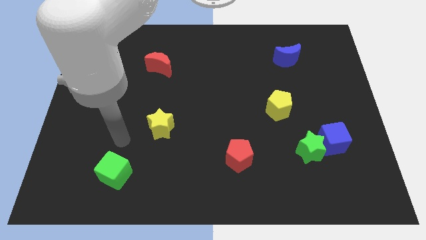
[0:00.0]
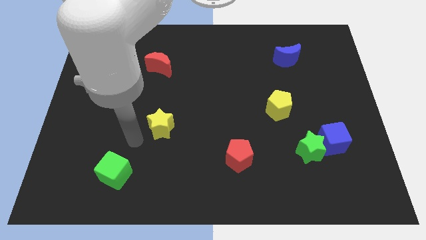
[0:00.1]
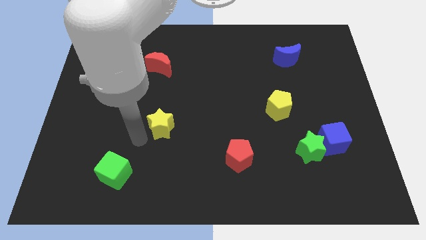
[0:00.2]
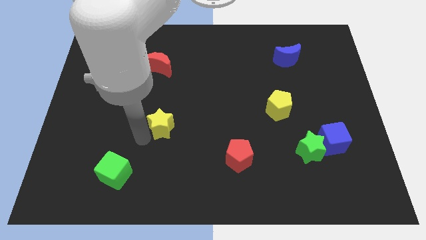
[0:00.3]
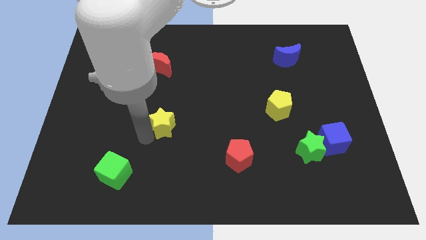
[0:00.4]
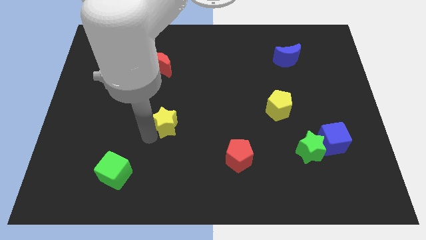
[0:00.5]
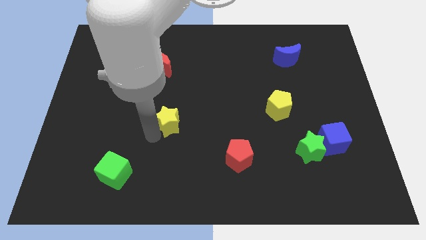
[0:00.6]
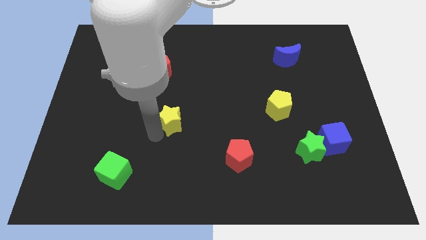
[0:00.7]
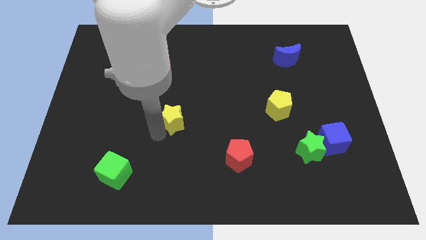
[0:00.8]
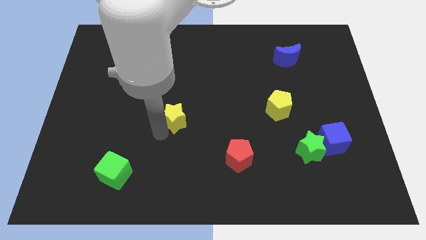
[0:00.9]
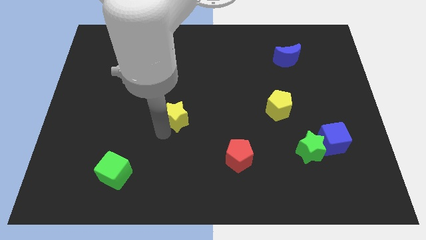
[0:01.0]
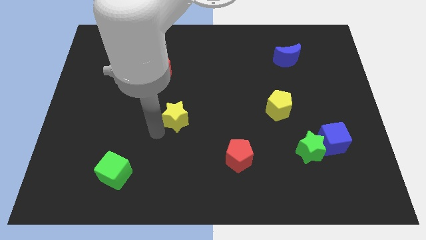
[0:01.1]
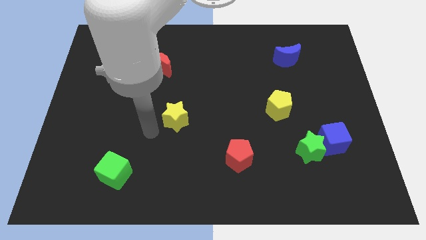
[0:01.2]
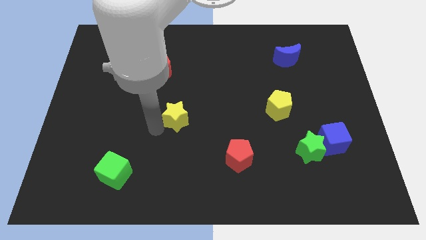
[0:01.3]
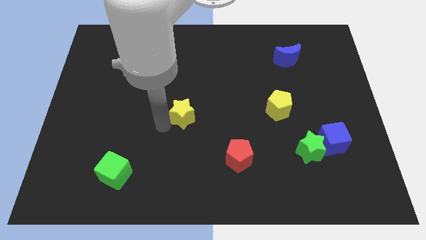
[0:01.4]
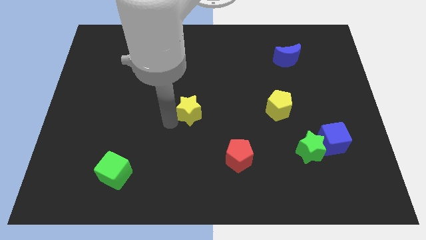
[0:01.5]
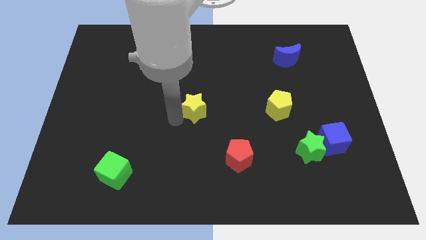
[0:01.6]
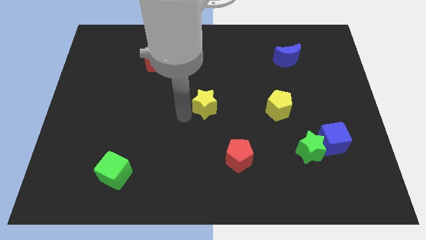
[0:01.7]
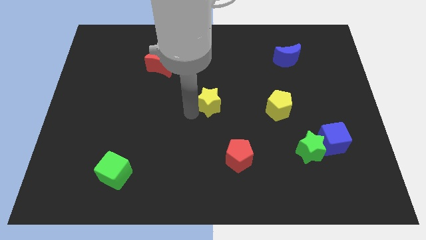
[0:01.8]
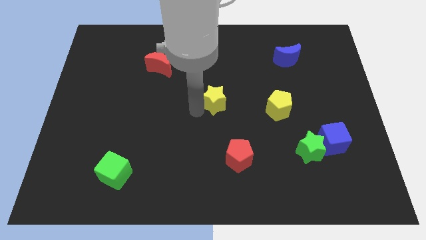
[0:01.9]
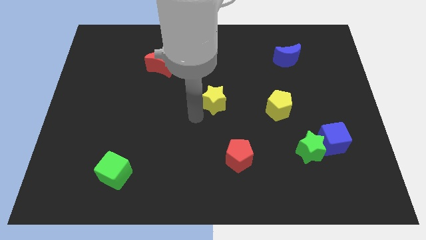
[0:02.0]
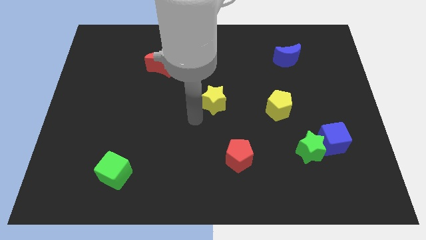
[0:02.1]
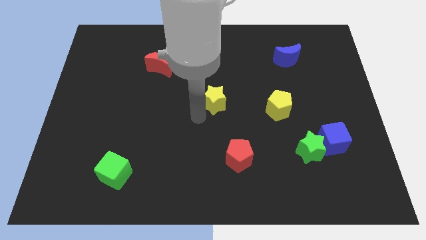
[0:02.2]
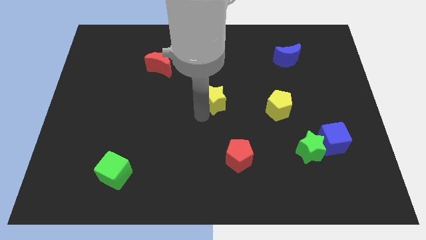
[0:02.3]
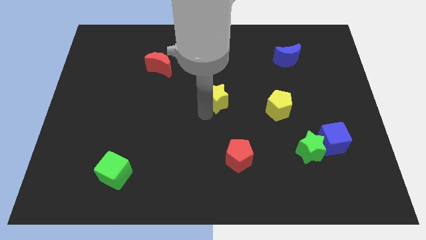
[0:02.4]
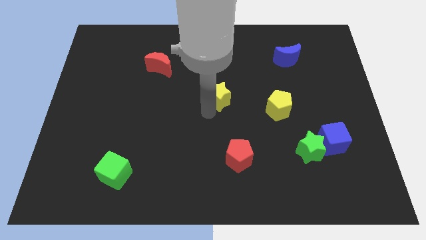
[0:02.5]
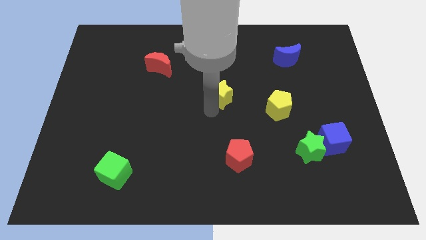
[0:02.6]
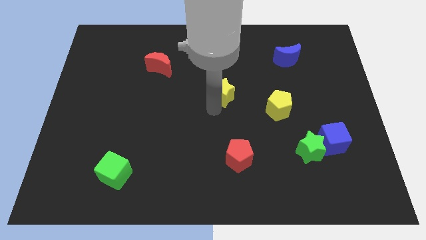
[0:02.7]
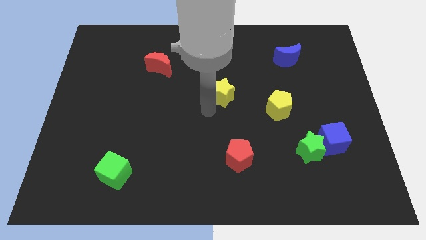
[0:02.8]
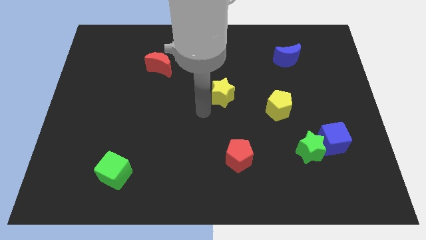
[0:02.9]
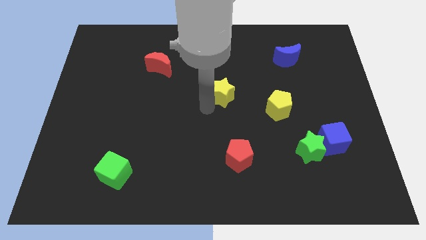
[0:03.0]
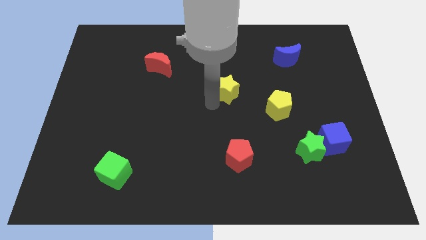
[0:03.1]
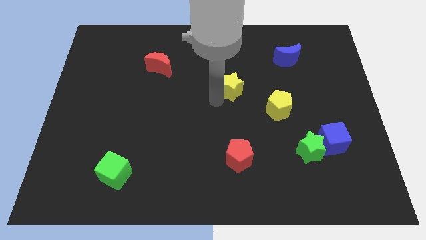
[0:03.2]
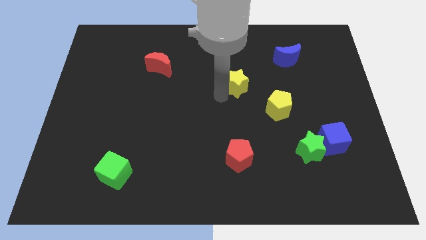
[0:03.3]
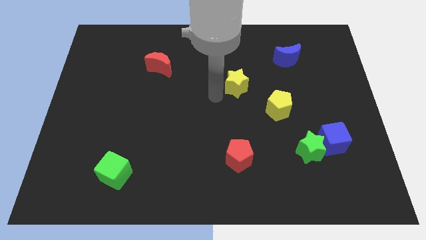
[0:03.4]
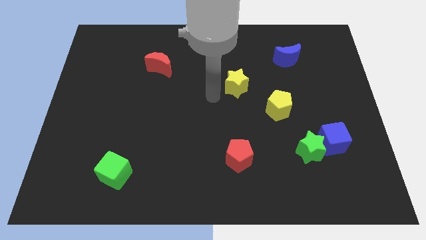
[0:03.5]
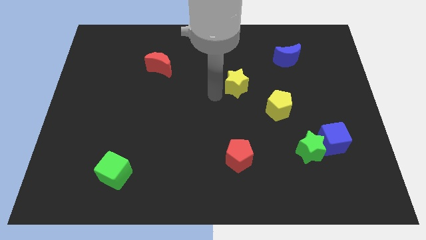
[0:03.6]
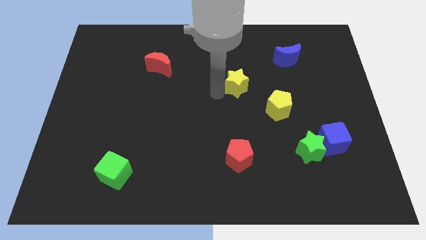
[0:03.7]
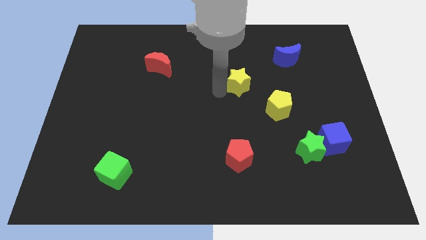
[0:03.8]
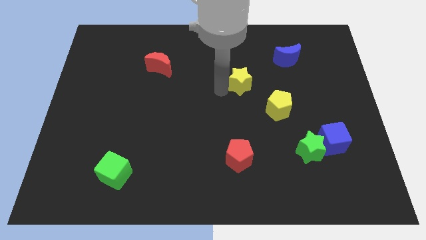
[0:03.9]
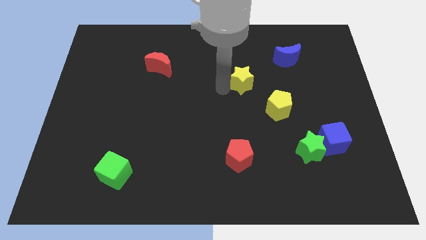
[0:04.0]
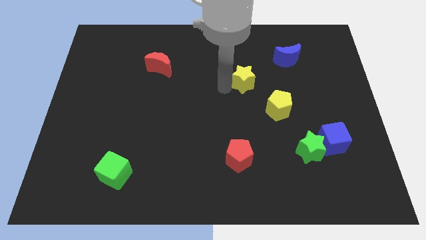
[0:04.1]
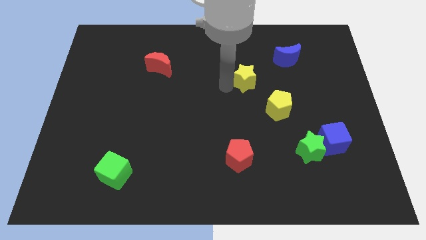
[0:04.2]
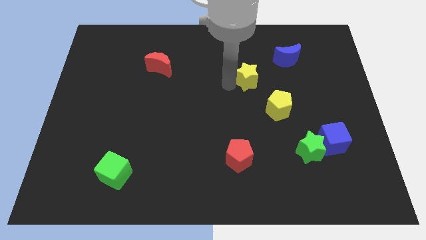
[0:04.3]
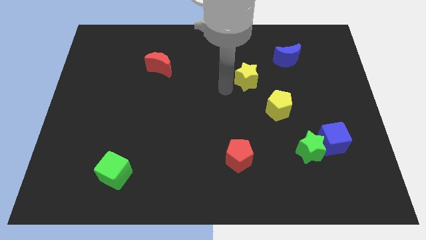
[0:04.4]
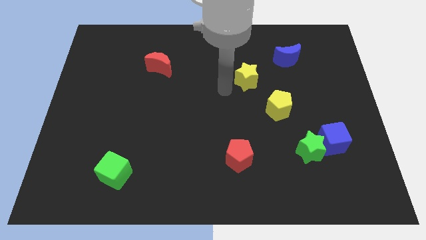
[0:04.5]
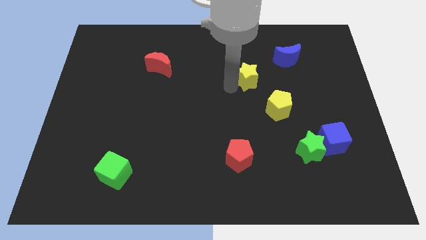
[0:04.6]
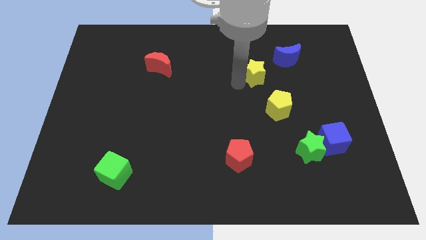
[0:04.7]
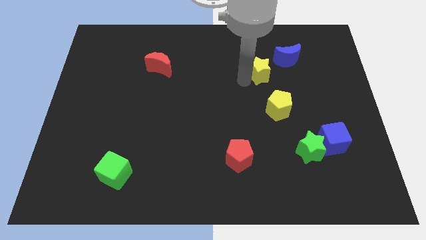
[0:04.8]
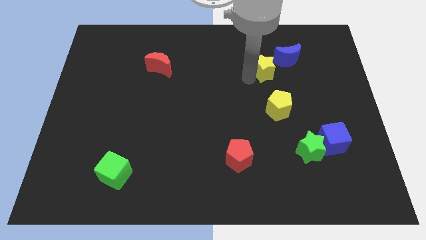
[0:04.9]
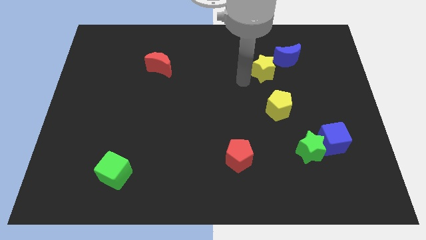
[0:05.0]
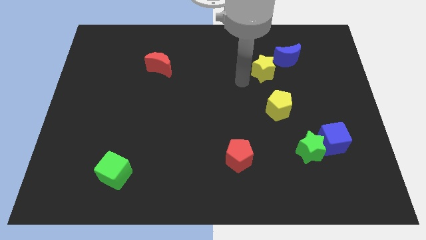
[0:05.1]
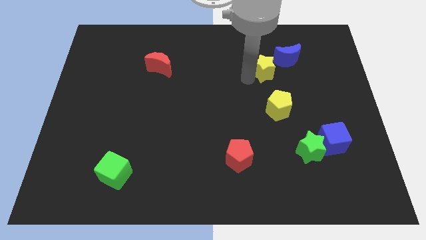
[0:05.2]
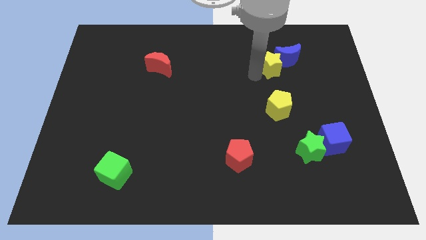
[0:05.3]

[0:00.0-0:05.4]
push the yellow star towards the blue moon

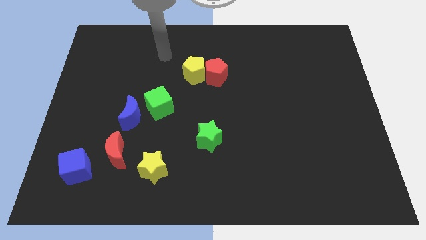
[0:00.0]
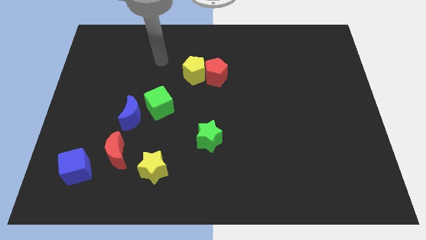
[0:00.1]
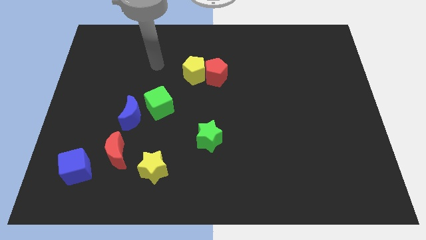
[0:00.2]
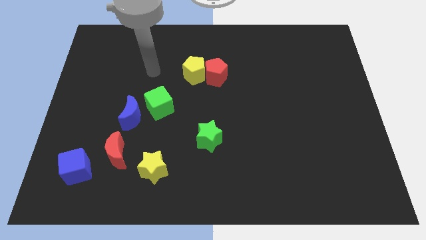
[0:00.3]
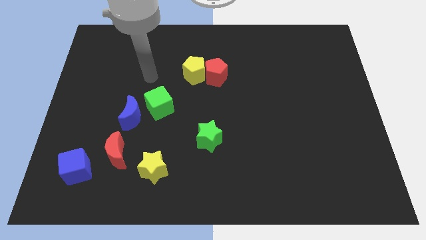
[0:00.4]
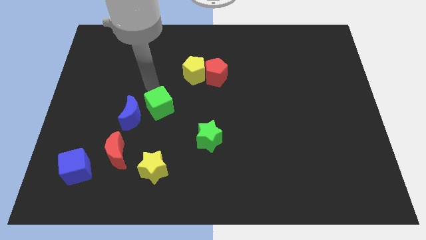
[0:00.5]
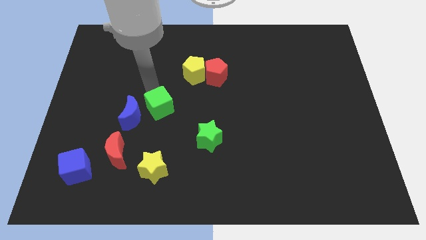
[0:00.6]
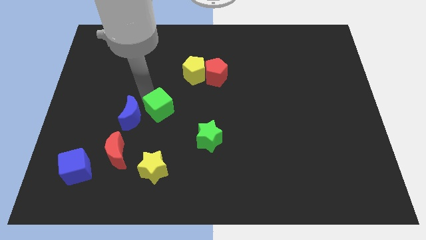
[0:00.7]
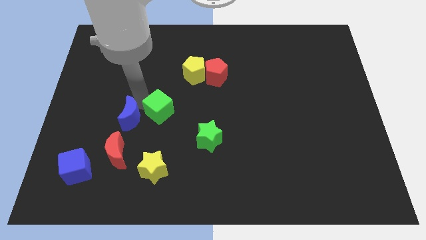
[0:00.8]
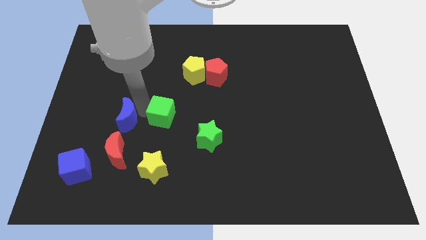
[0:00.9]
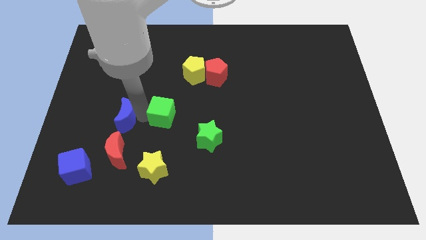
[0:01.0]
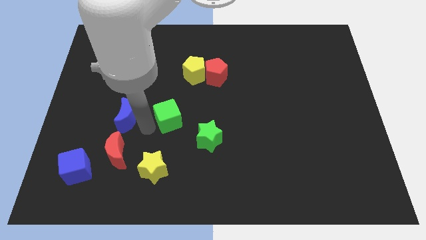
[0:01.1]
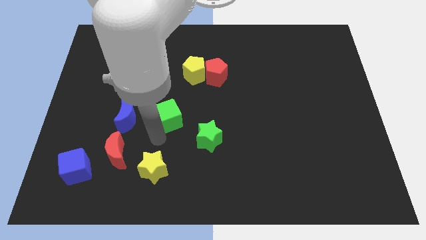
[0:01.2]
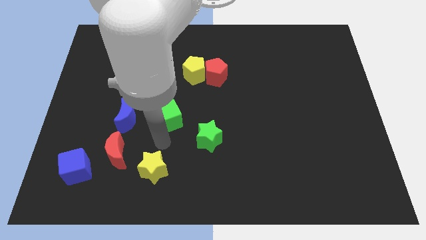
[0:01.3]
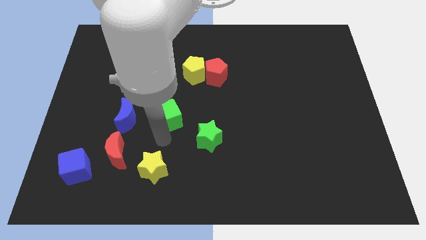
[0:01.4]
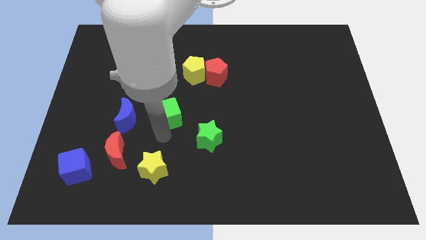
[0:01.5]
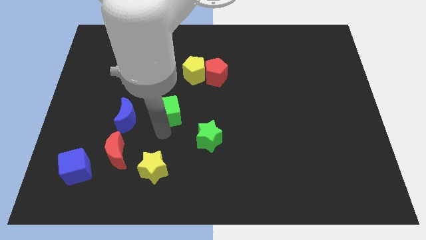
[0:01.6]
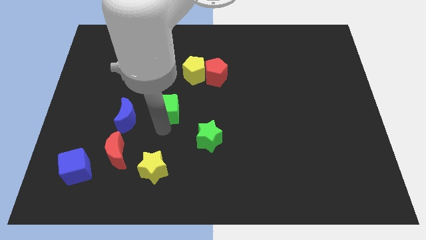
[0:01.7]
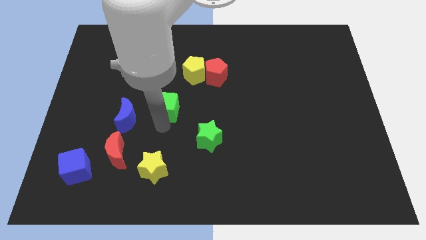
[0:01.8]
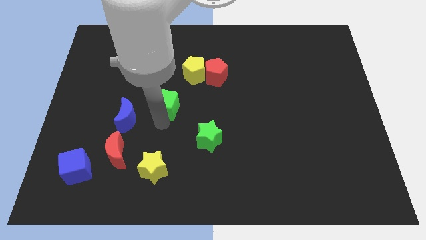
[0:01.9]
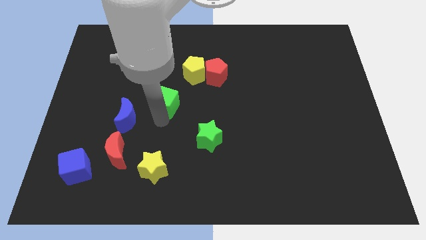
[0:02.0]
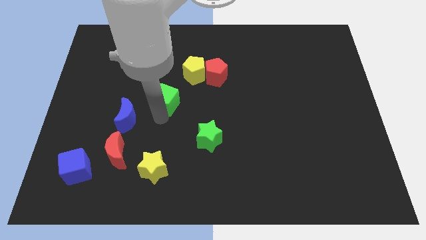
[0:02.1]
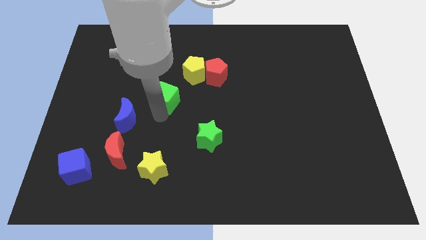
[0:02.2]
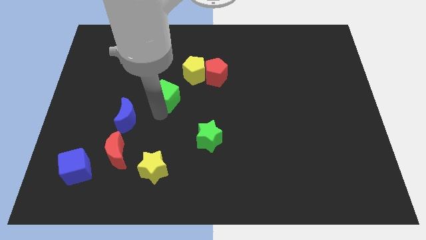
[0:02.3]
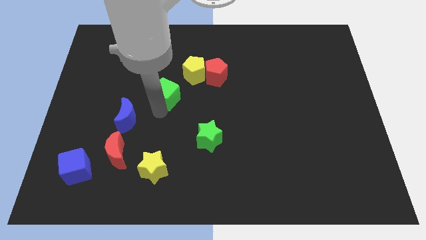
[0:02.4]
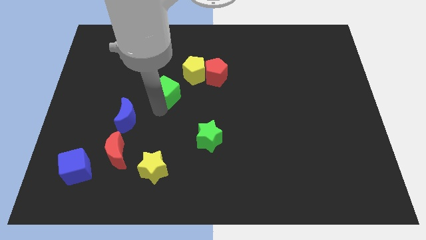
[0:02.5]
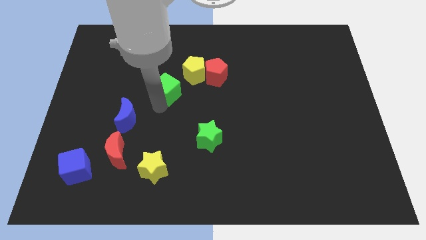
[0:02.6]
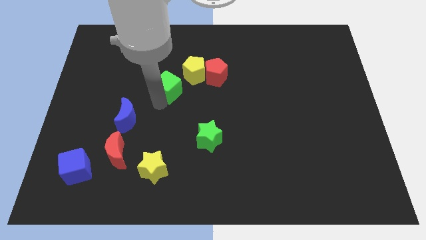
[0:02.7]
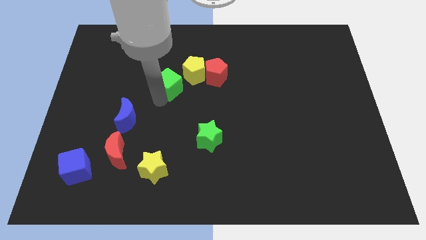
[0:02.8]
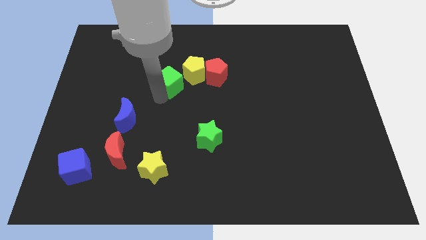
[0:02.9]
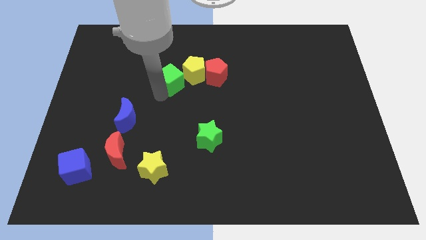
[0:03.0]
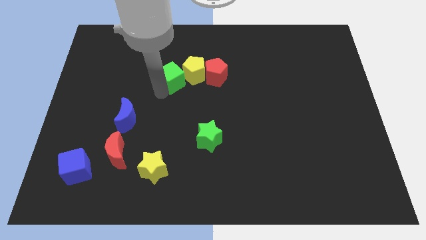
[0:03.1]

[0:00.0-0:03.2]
move the green cube towards the yellow pentagon
